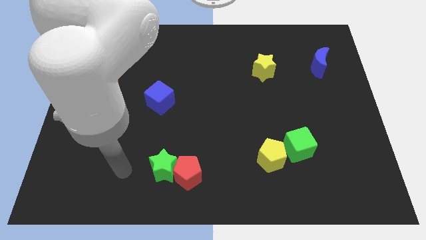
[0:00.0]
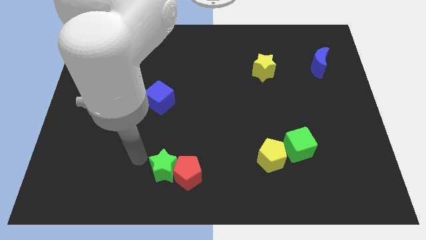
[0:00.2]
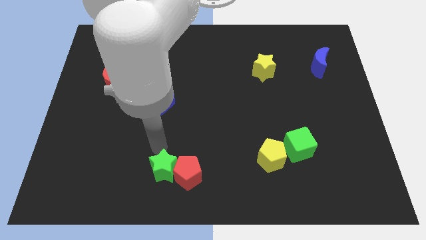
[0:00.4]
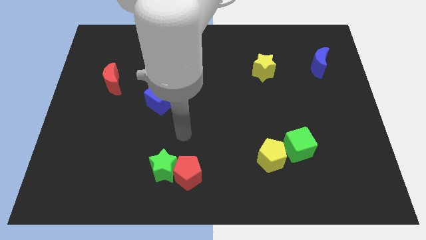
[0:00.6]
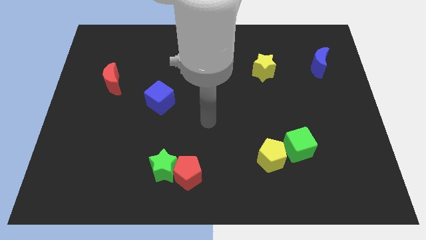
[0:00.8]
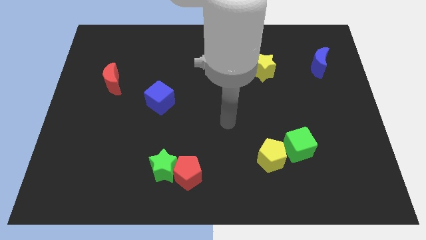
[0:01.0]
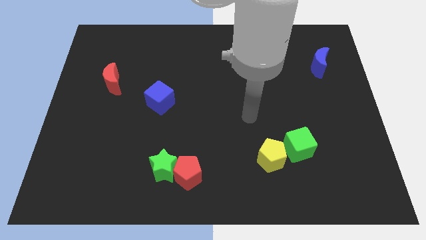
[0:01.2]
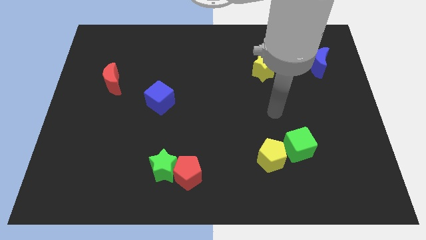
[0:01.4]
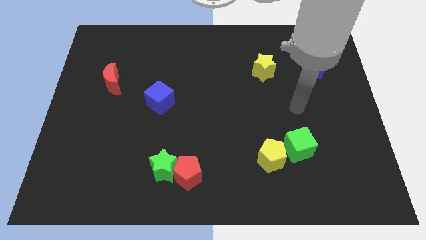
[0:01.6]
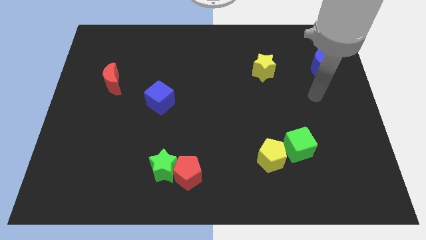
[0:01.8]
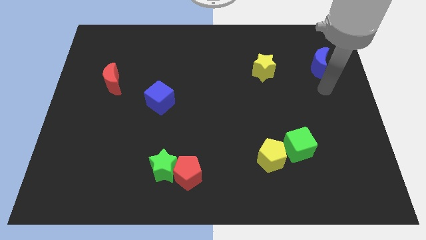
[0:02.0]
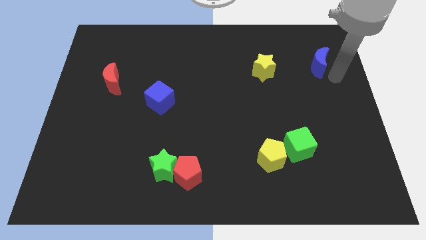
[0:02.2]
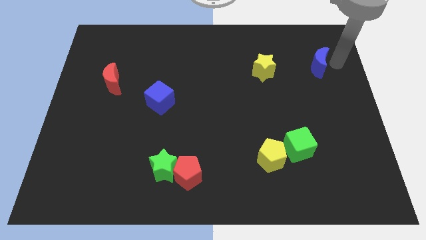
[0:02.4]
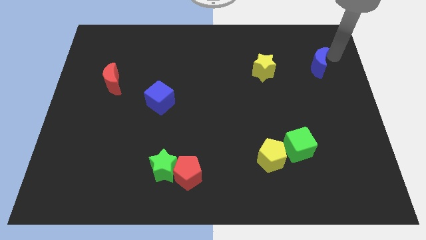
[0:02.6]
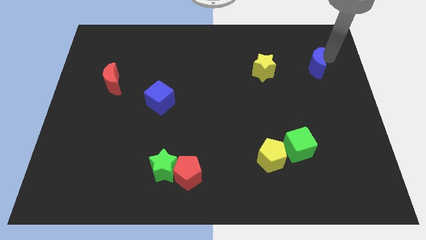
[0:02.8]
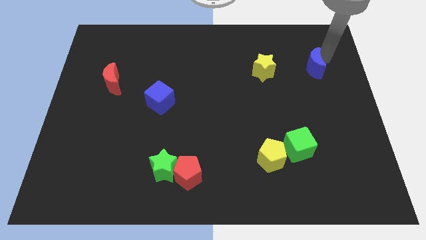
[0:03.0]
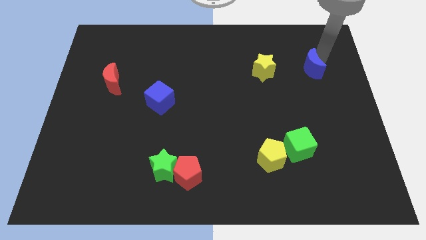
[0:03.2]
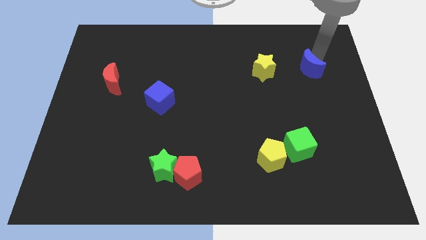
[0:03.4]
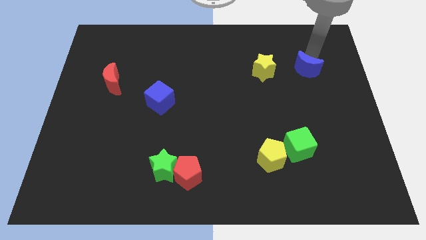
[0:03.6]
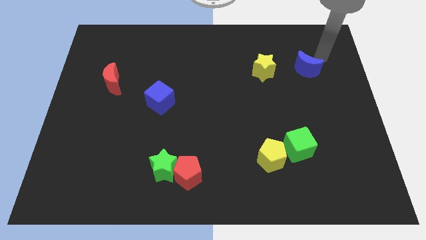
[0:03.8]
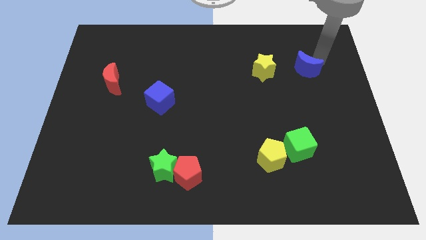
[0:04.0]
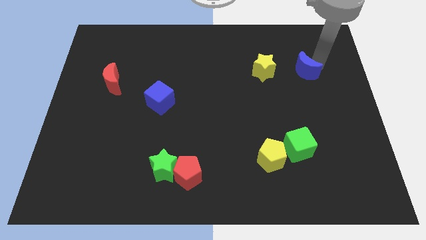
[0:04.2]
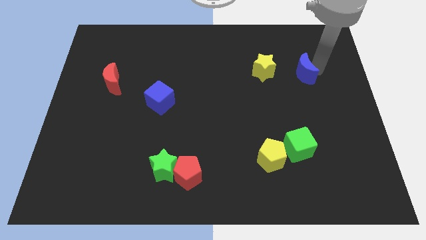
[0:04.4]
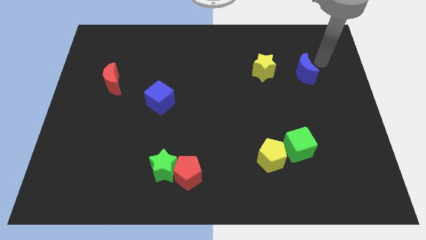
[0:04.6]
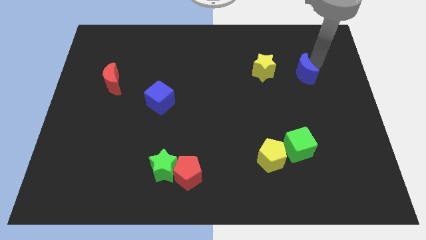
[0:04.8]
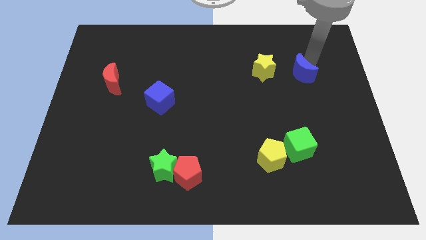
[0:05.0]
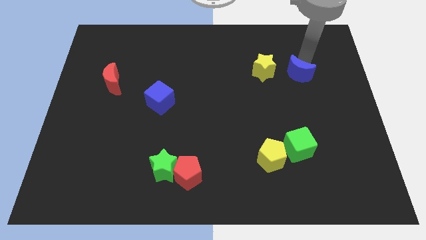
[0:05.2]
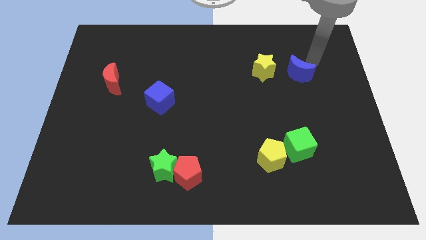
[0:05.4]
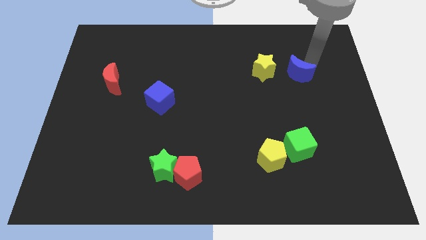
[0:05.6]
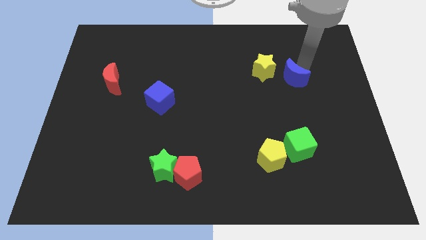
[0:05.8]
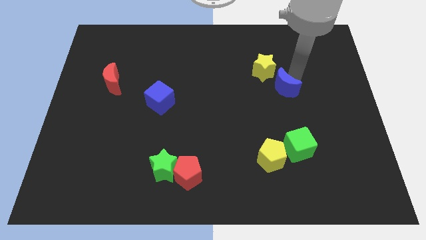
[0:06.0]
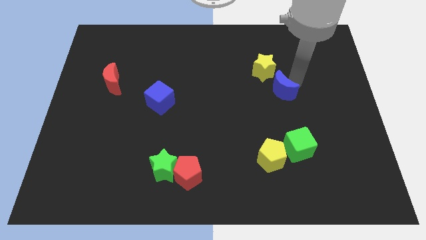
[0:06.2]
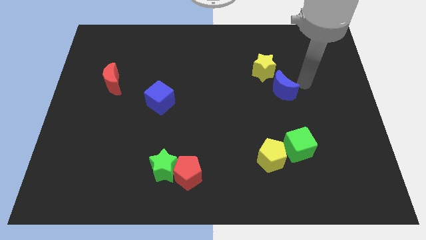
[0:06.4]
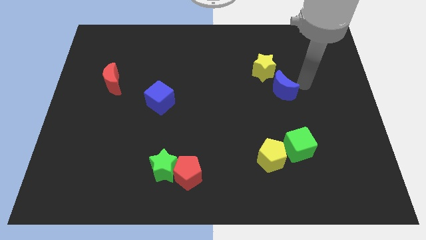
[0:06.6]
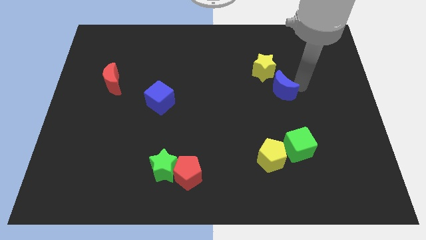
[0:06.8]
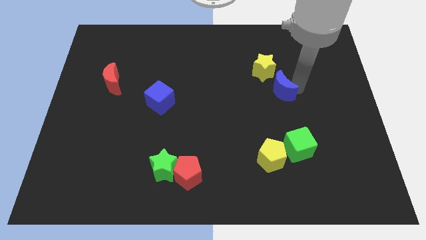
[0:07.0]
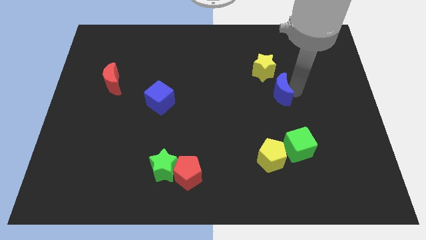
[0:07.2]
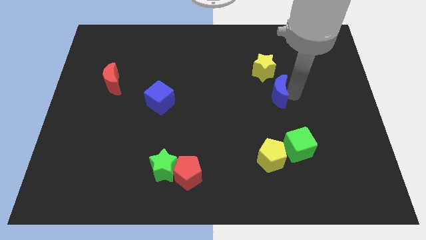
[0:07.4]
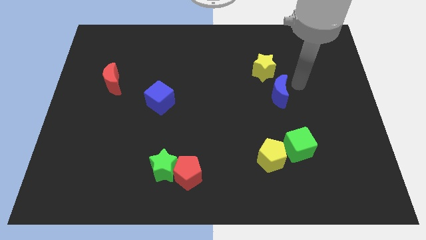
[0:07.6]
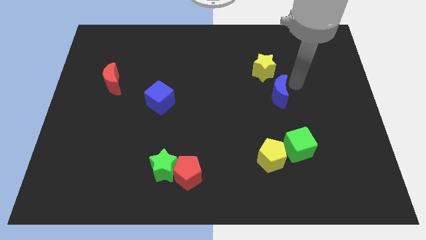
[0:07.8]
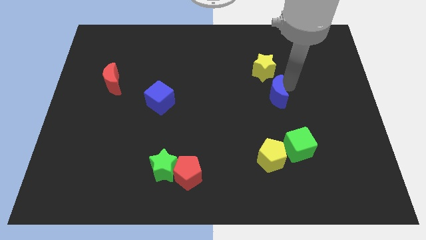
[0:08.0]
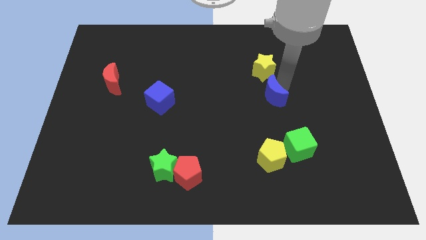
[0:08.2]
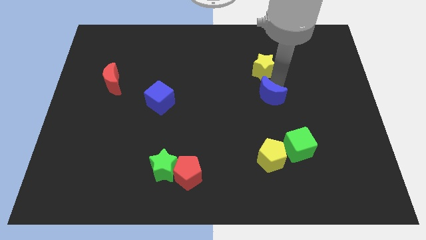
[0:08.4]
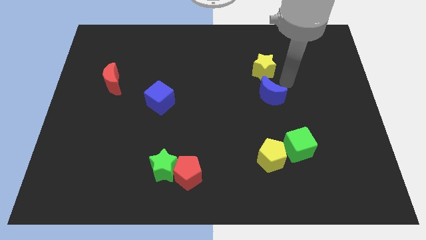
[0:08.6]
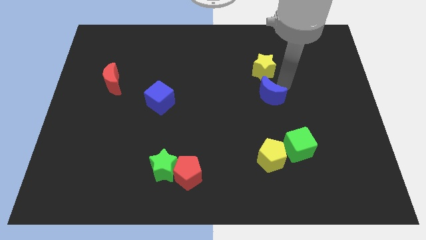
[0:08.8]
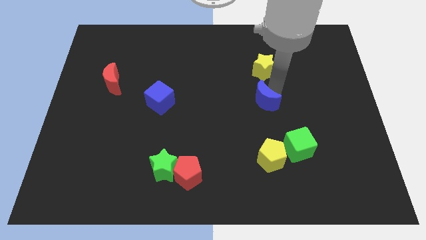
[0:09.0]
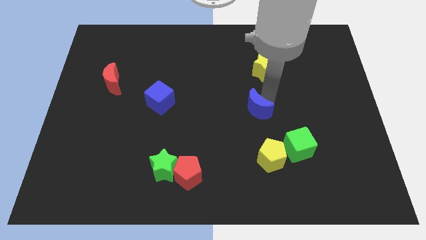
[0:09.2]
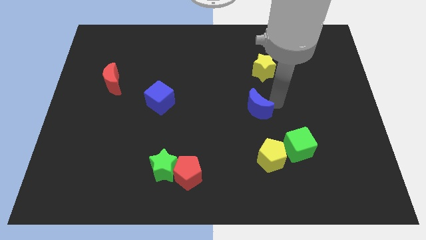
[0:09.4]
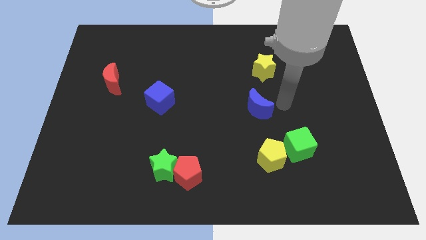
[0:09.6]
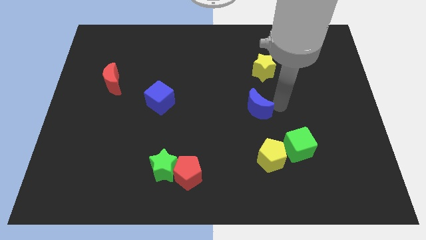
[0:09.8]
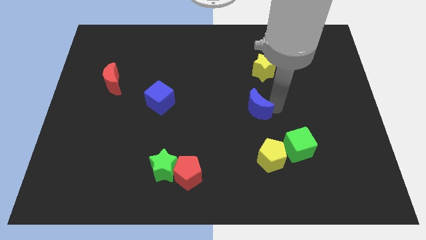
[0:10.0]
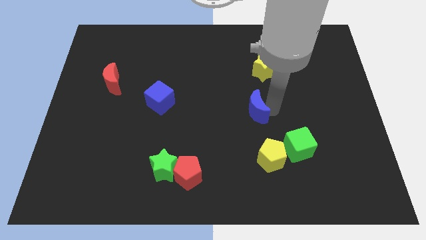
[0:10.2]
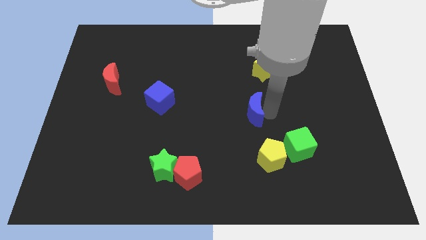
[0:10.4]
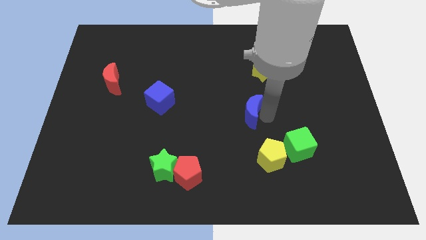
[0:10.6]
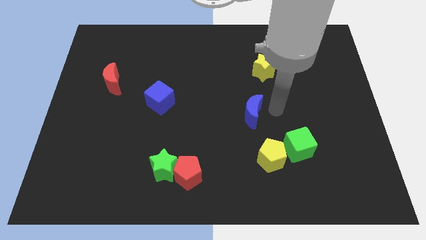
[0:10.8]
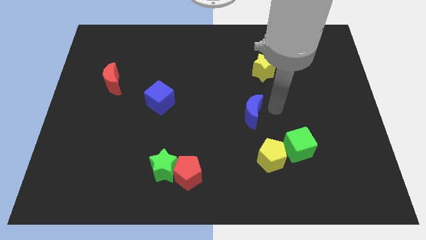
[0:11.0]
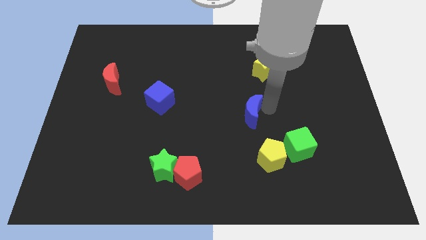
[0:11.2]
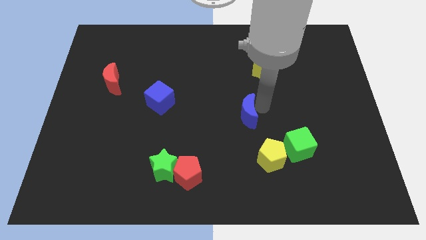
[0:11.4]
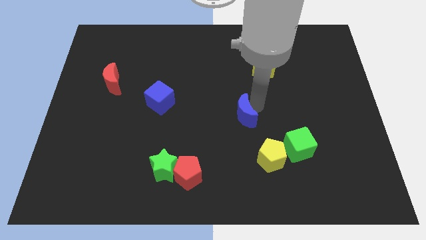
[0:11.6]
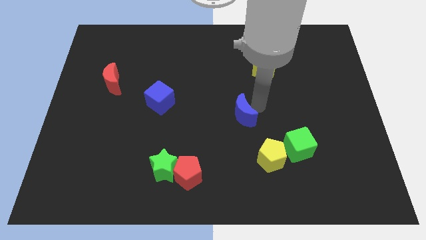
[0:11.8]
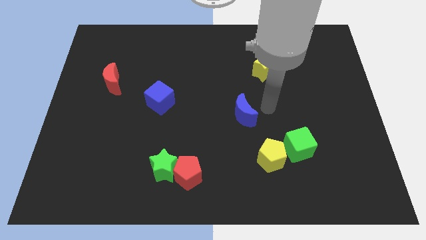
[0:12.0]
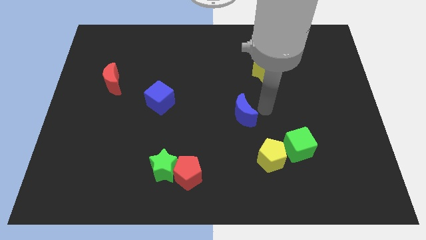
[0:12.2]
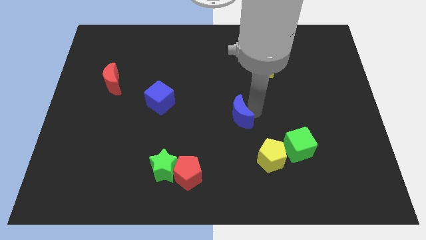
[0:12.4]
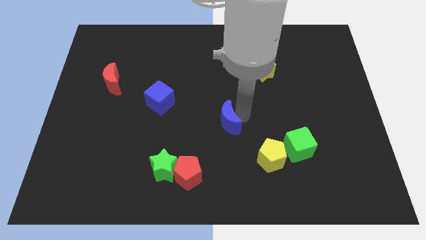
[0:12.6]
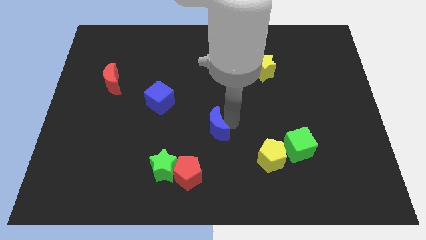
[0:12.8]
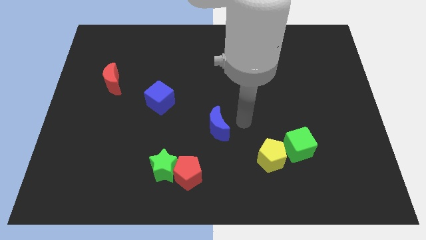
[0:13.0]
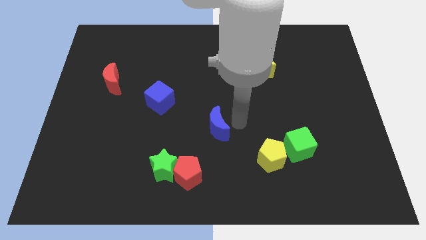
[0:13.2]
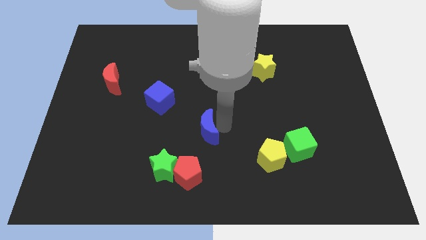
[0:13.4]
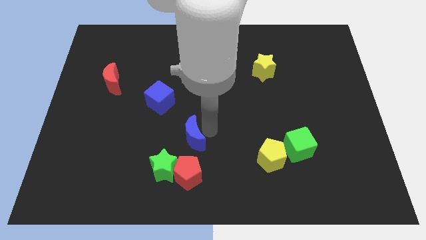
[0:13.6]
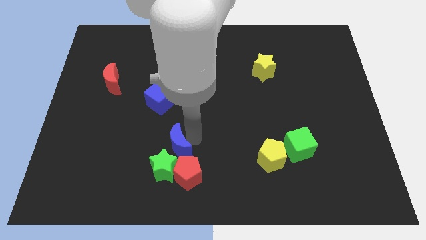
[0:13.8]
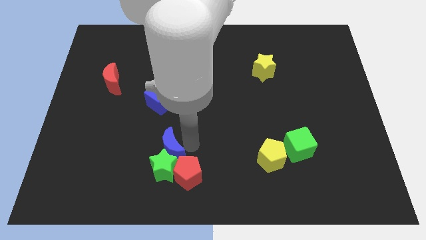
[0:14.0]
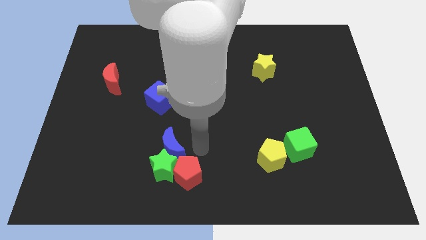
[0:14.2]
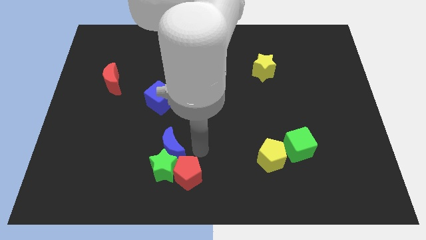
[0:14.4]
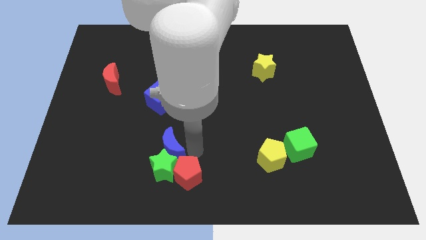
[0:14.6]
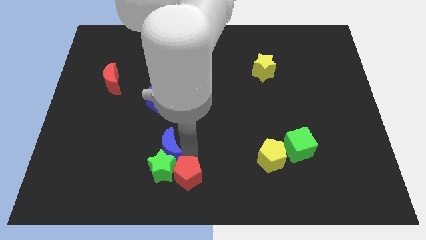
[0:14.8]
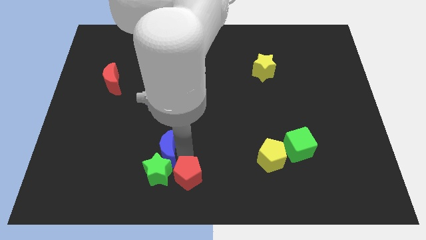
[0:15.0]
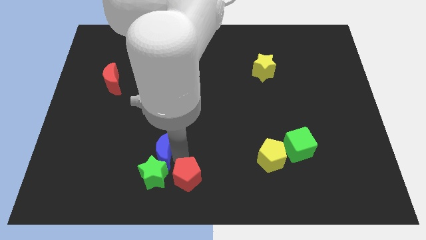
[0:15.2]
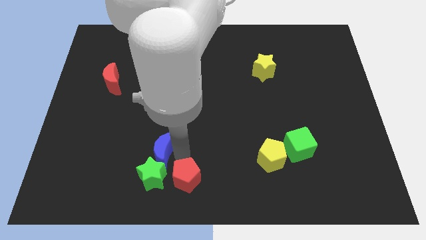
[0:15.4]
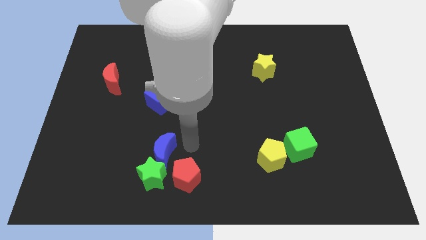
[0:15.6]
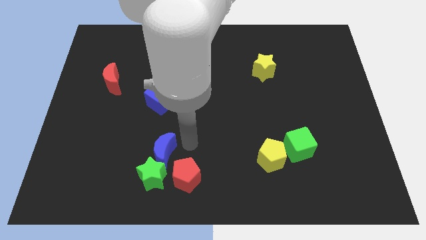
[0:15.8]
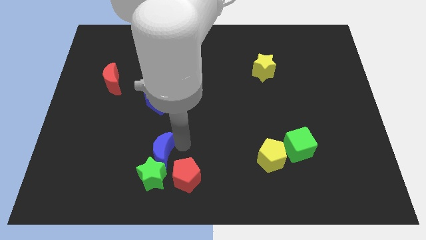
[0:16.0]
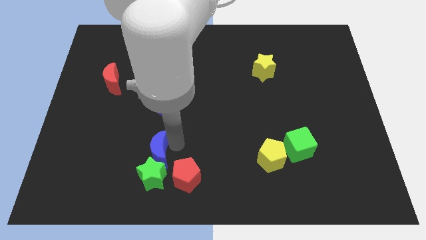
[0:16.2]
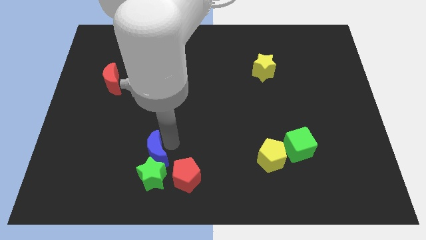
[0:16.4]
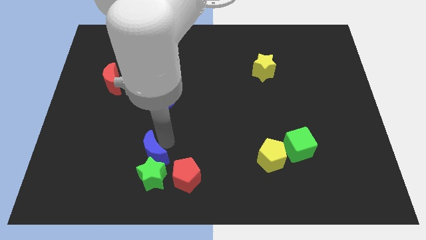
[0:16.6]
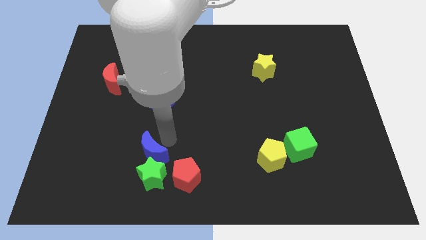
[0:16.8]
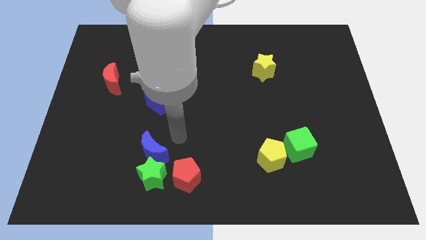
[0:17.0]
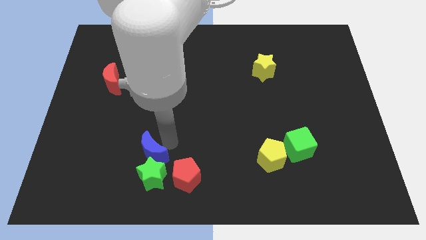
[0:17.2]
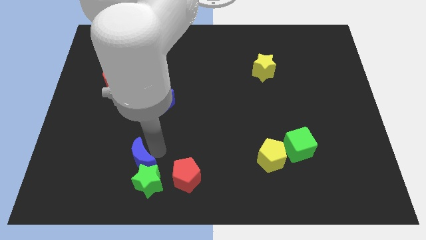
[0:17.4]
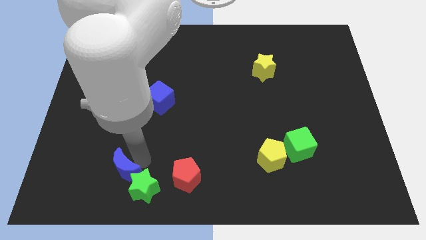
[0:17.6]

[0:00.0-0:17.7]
slide the blue moon left of the green star
